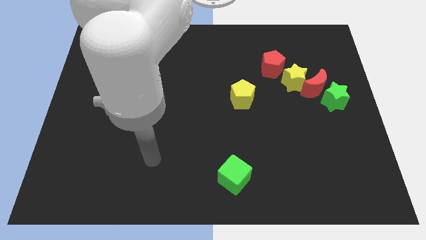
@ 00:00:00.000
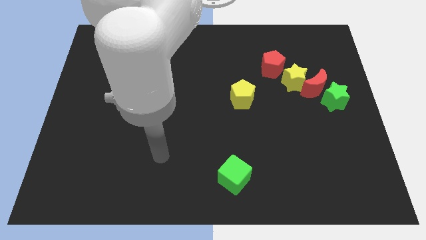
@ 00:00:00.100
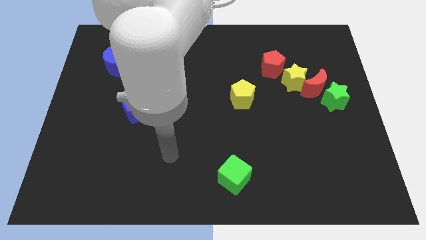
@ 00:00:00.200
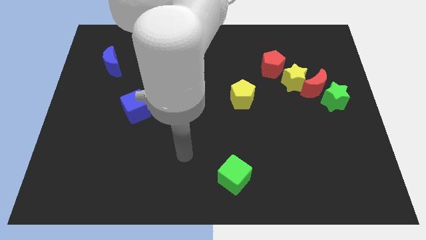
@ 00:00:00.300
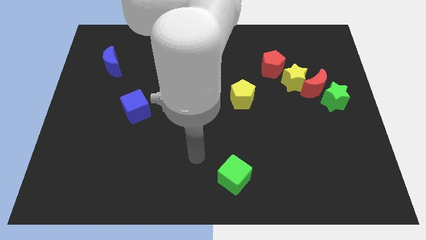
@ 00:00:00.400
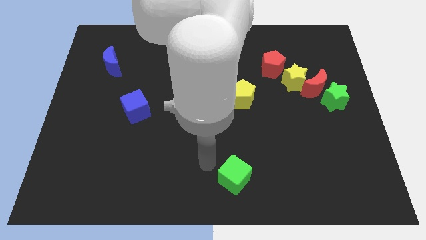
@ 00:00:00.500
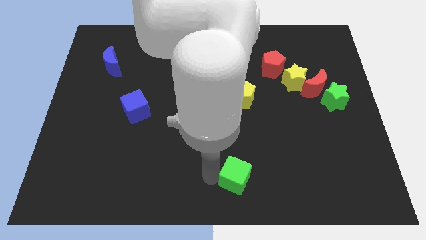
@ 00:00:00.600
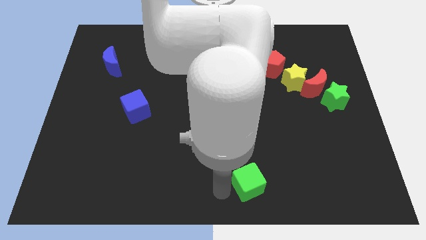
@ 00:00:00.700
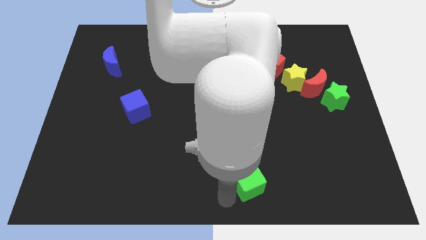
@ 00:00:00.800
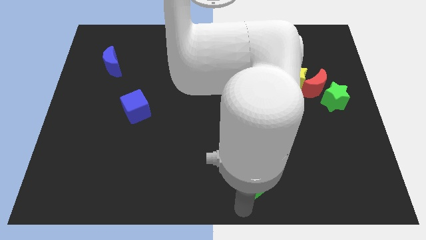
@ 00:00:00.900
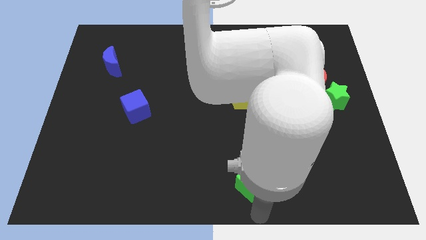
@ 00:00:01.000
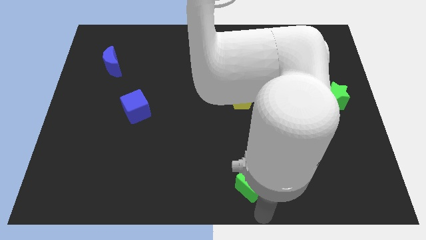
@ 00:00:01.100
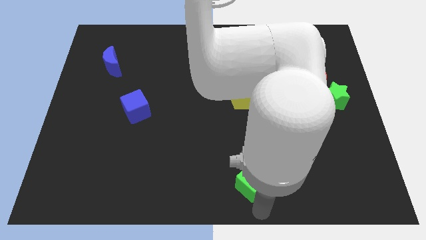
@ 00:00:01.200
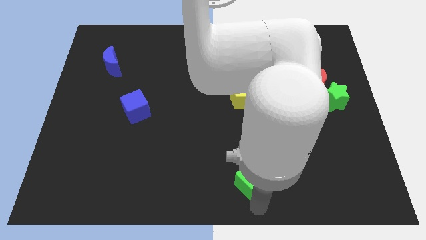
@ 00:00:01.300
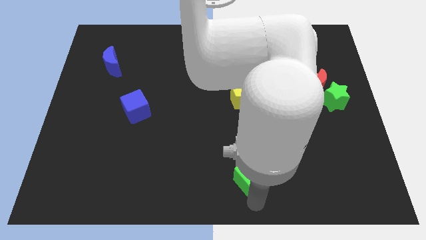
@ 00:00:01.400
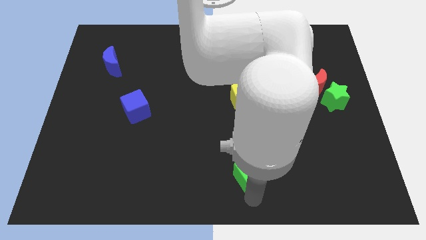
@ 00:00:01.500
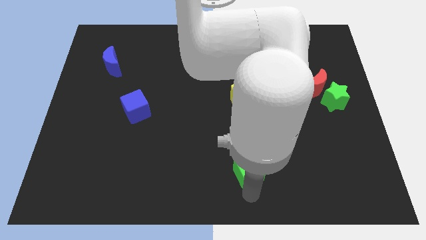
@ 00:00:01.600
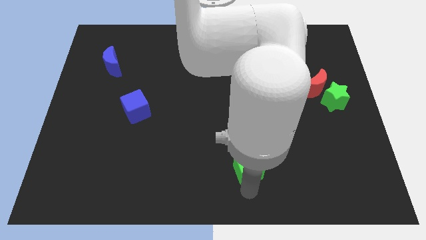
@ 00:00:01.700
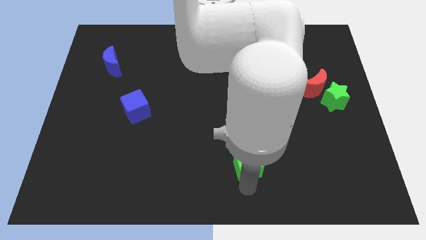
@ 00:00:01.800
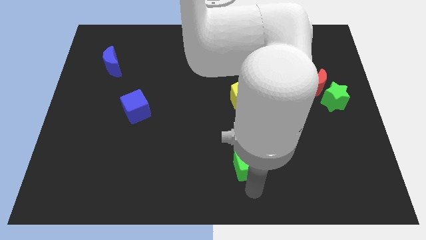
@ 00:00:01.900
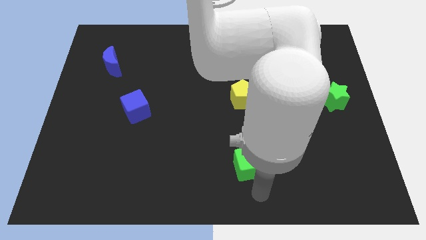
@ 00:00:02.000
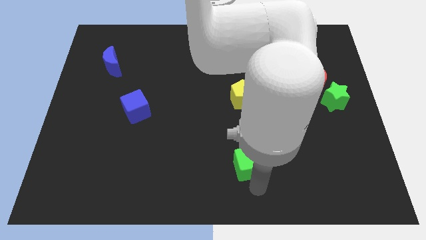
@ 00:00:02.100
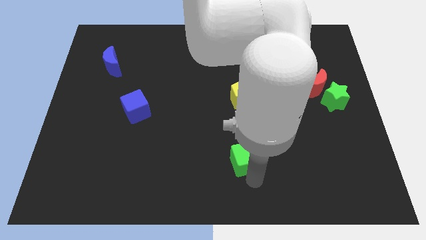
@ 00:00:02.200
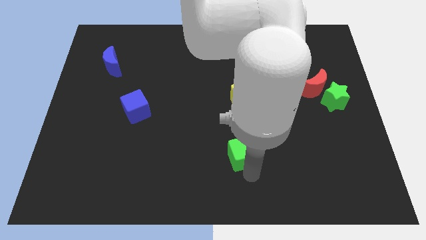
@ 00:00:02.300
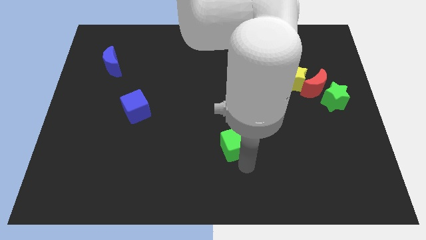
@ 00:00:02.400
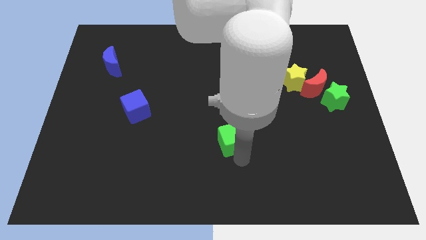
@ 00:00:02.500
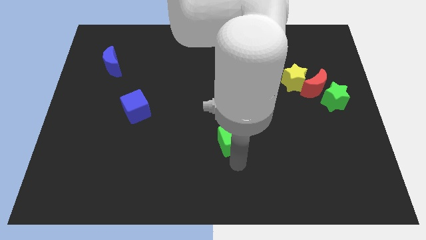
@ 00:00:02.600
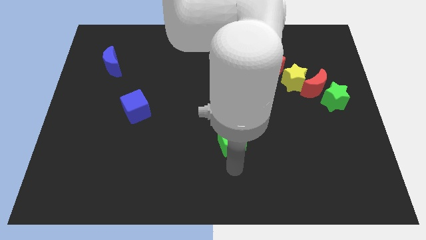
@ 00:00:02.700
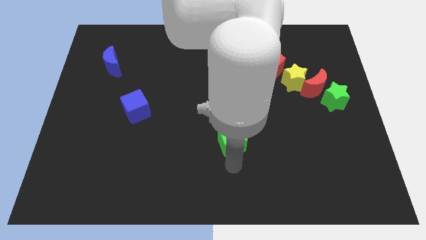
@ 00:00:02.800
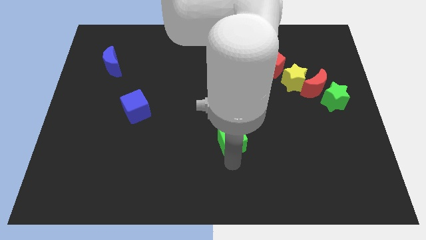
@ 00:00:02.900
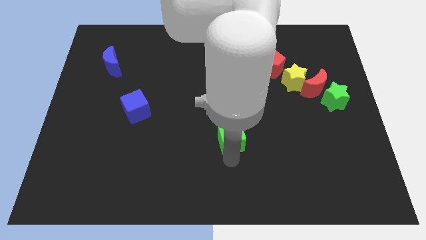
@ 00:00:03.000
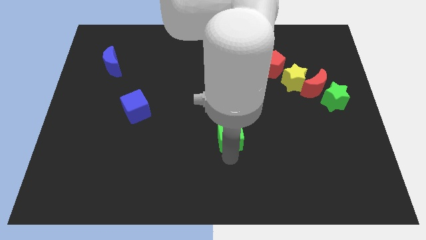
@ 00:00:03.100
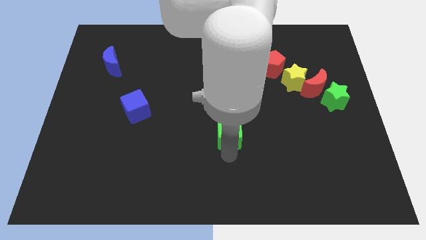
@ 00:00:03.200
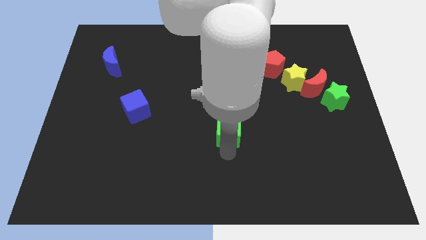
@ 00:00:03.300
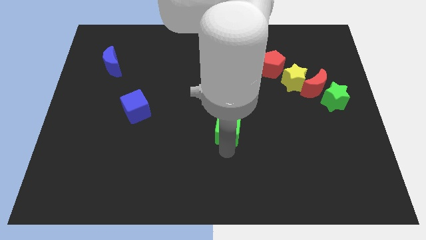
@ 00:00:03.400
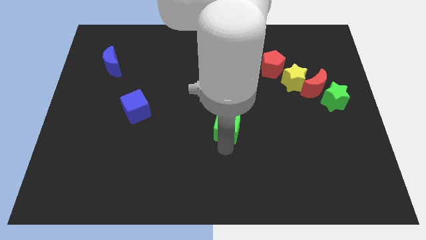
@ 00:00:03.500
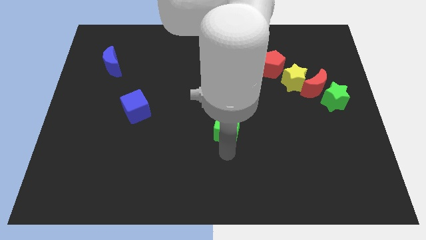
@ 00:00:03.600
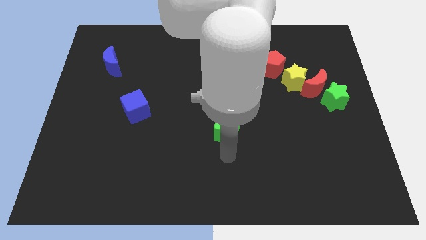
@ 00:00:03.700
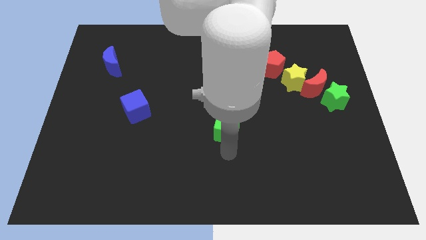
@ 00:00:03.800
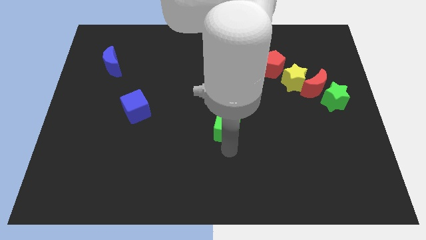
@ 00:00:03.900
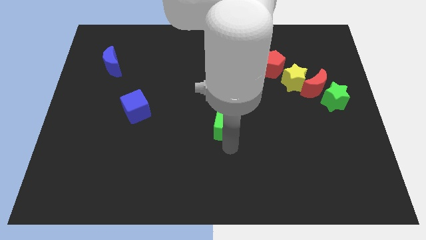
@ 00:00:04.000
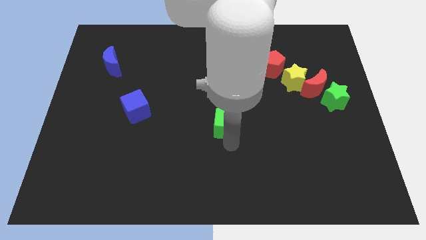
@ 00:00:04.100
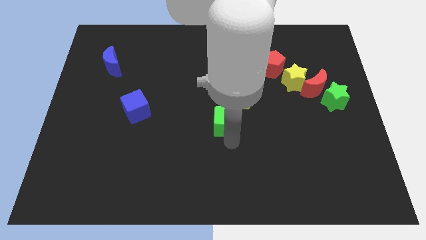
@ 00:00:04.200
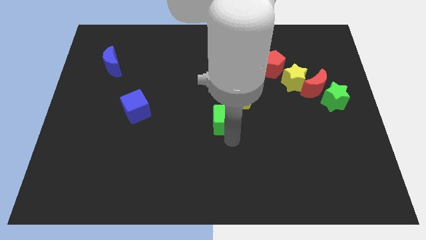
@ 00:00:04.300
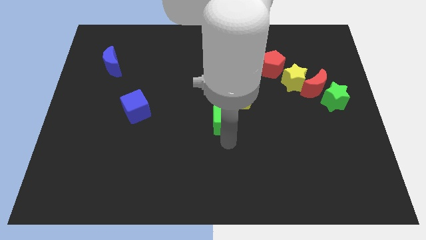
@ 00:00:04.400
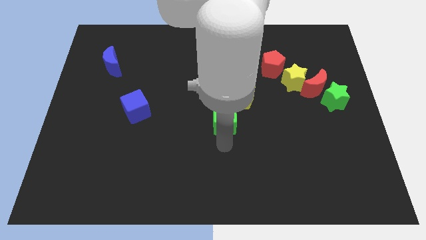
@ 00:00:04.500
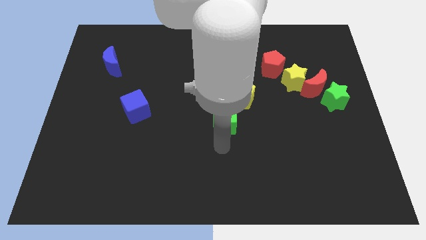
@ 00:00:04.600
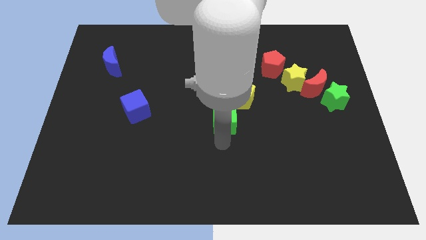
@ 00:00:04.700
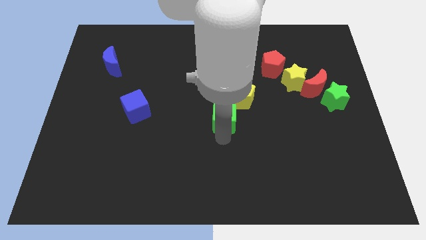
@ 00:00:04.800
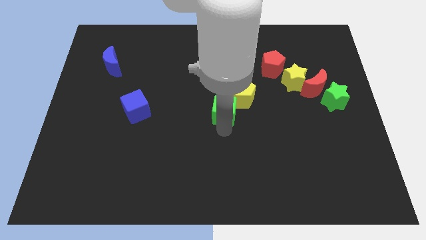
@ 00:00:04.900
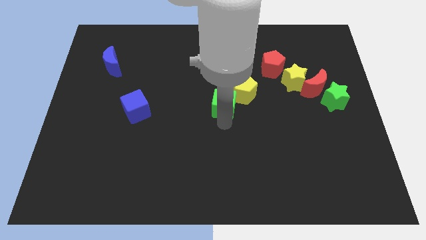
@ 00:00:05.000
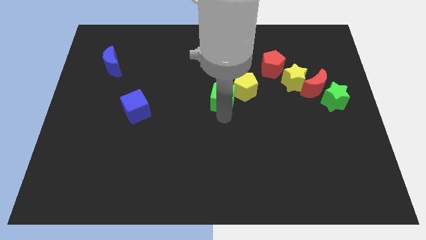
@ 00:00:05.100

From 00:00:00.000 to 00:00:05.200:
slide the green cube upwards

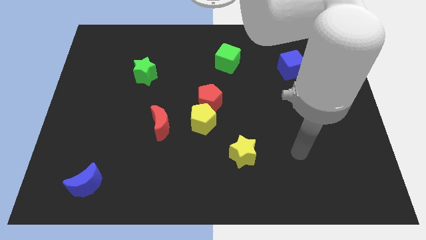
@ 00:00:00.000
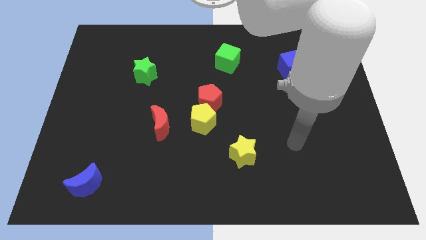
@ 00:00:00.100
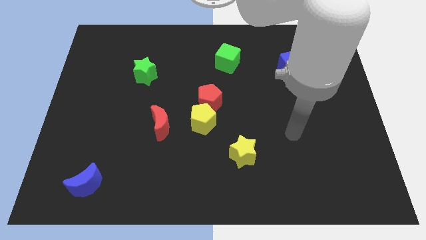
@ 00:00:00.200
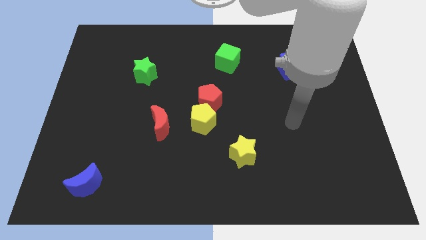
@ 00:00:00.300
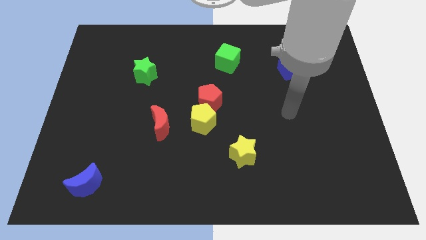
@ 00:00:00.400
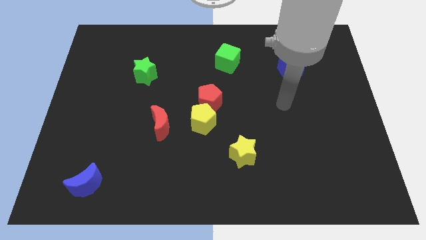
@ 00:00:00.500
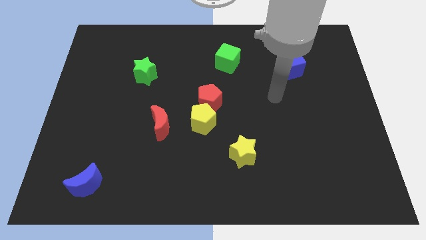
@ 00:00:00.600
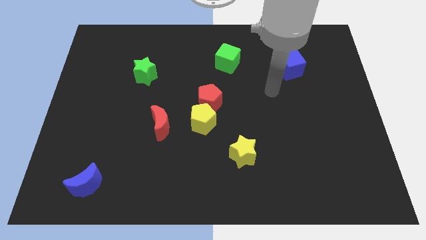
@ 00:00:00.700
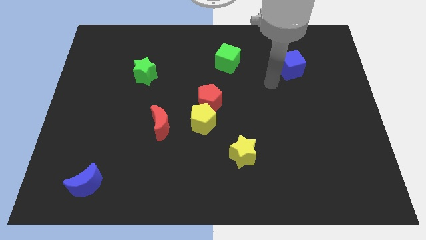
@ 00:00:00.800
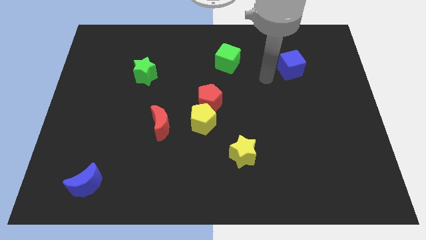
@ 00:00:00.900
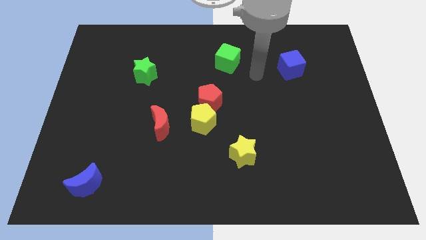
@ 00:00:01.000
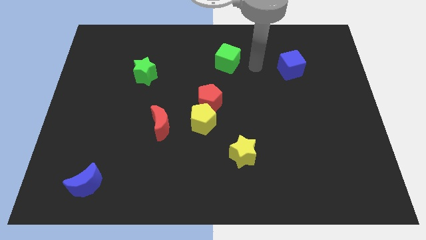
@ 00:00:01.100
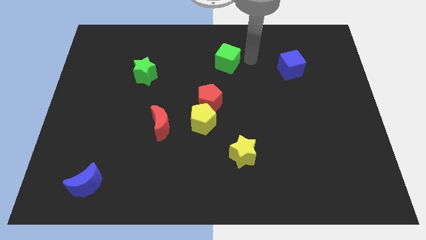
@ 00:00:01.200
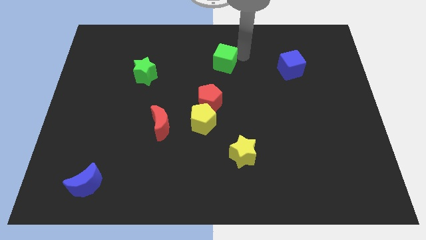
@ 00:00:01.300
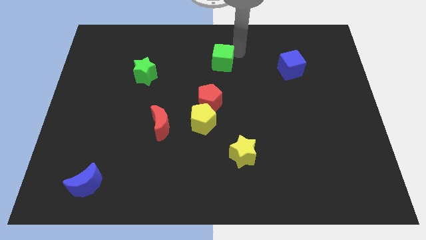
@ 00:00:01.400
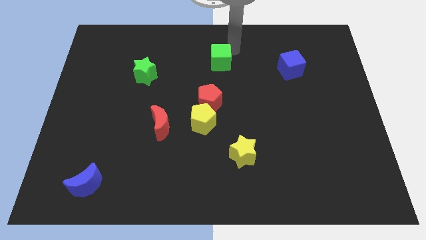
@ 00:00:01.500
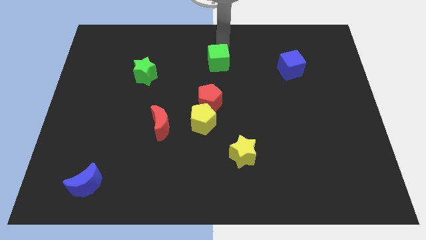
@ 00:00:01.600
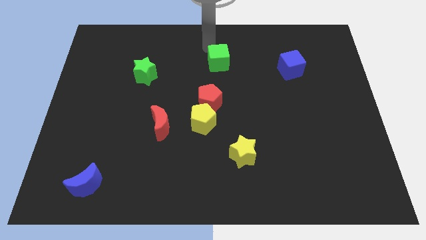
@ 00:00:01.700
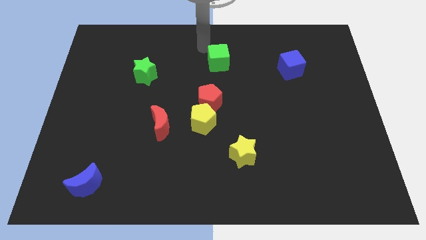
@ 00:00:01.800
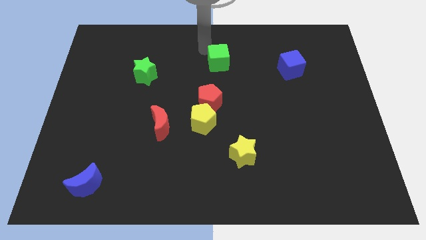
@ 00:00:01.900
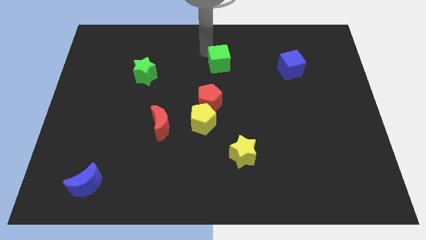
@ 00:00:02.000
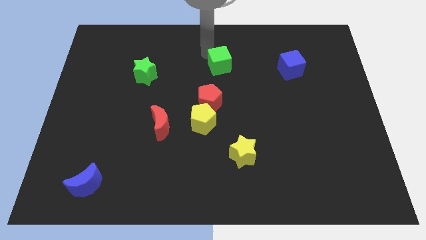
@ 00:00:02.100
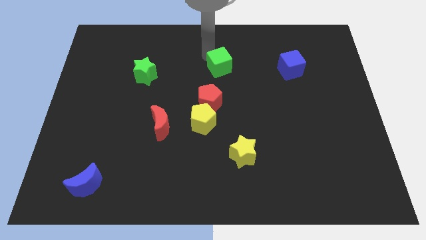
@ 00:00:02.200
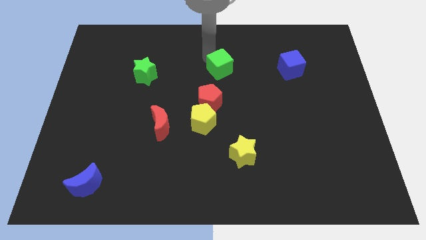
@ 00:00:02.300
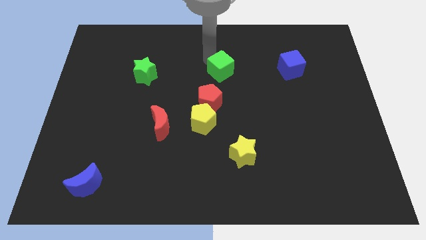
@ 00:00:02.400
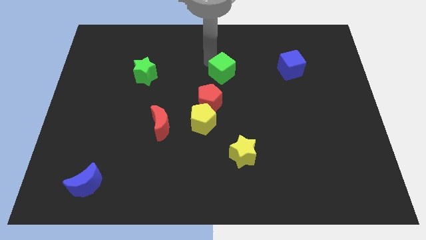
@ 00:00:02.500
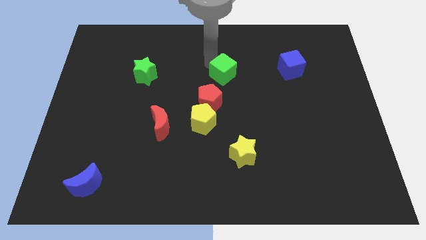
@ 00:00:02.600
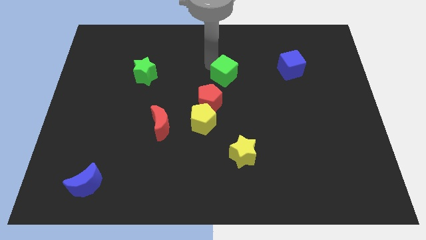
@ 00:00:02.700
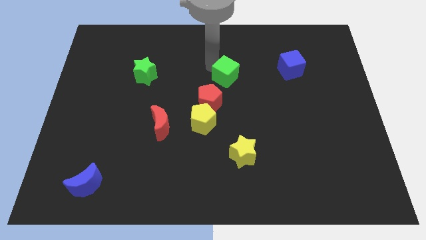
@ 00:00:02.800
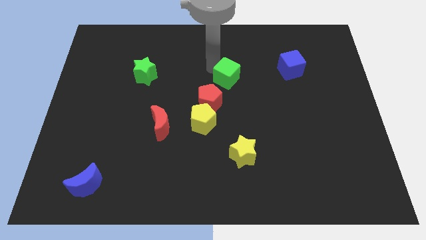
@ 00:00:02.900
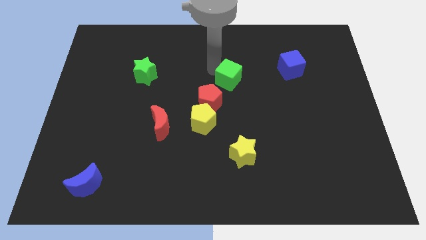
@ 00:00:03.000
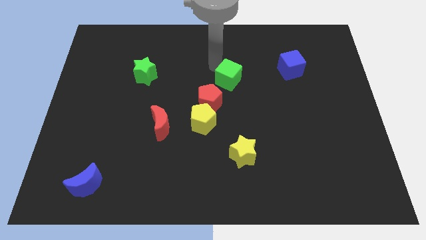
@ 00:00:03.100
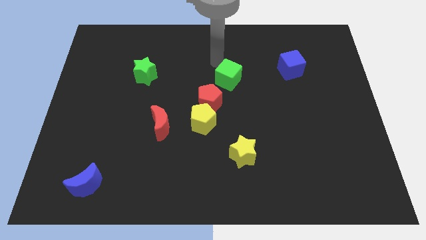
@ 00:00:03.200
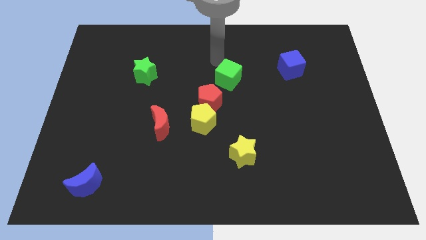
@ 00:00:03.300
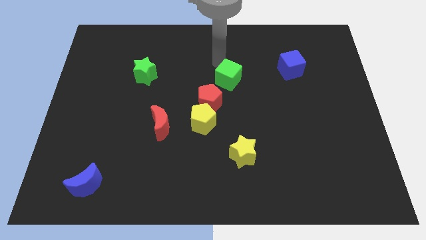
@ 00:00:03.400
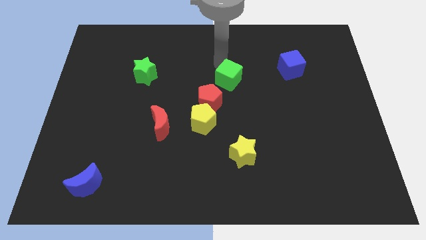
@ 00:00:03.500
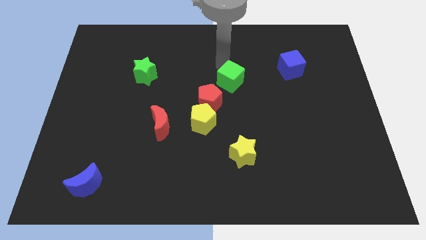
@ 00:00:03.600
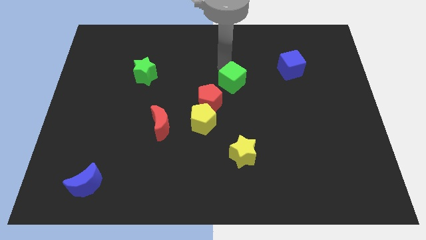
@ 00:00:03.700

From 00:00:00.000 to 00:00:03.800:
push the green cube a little downwards
